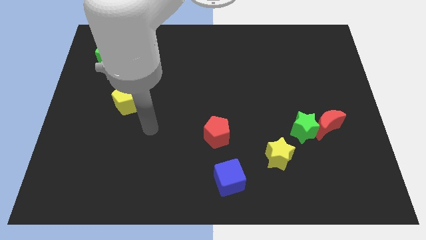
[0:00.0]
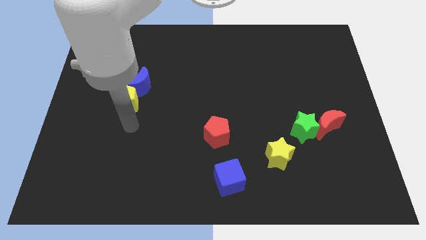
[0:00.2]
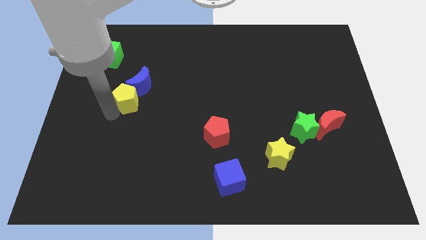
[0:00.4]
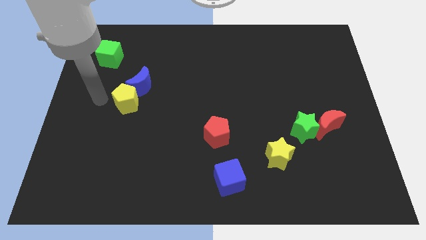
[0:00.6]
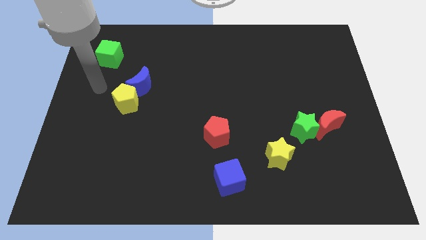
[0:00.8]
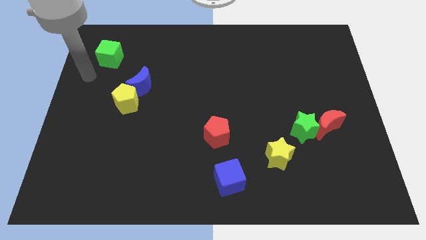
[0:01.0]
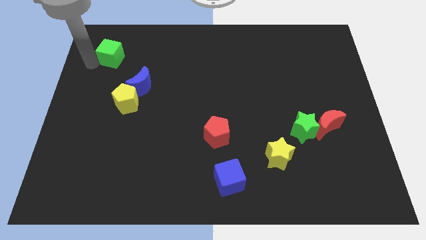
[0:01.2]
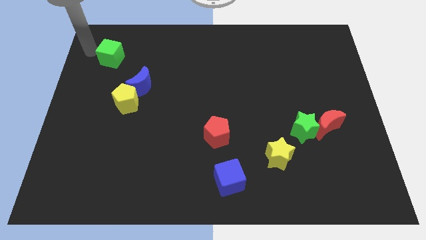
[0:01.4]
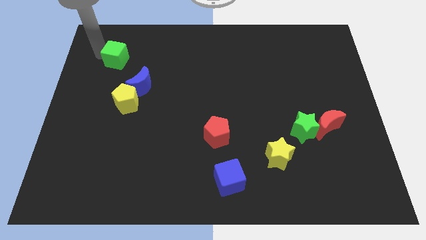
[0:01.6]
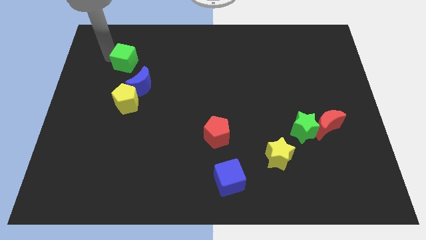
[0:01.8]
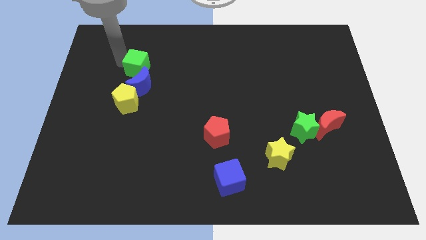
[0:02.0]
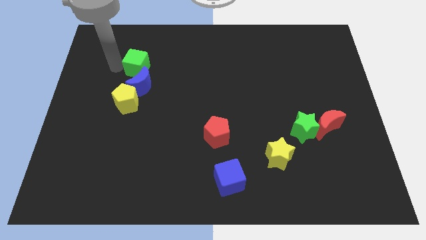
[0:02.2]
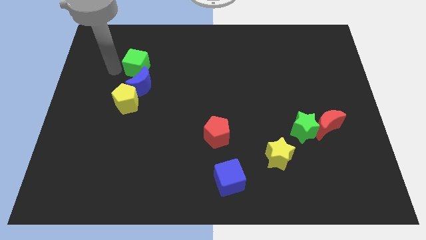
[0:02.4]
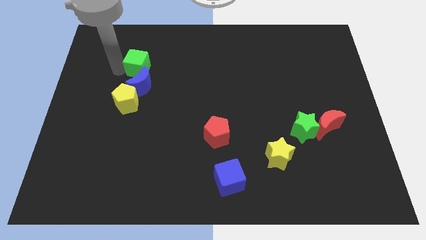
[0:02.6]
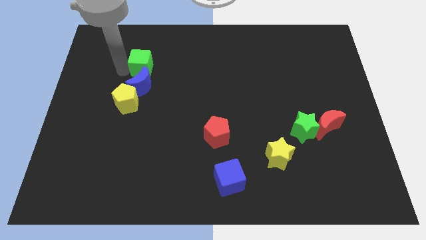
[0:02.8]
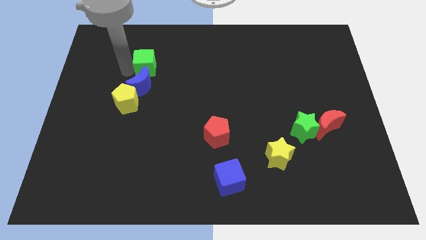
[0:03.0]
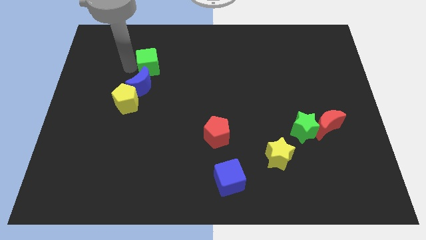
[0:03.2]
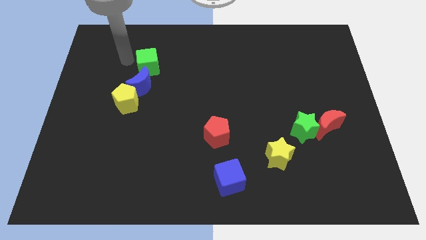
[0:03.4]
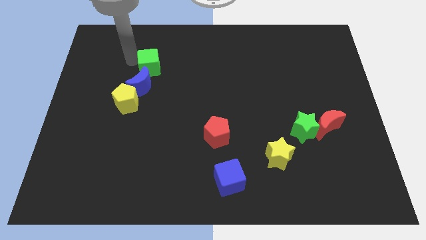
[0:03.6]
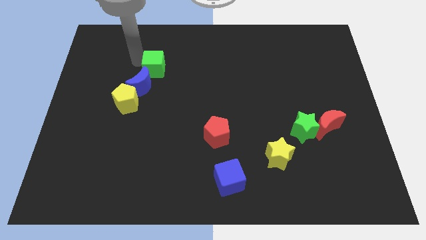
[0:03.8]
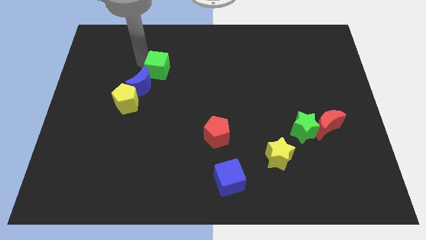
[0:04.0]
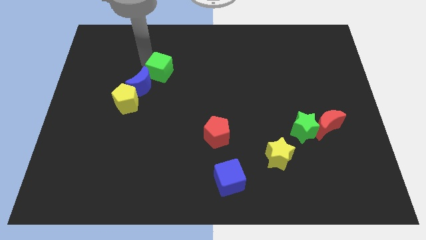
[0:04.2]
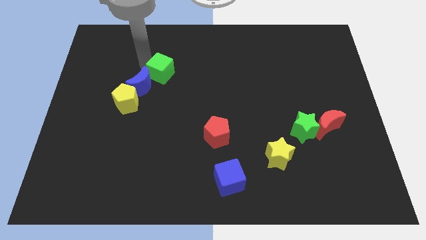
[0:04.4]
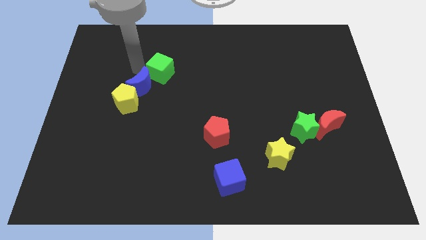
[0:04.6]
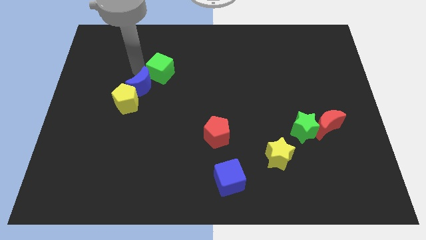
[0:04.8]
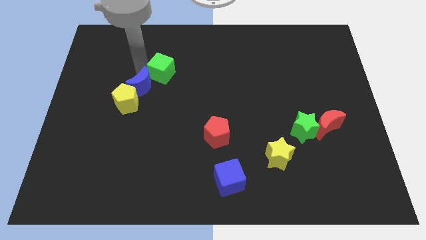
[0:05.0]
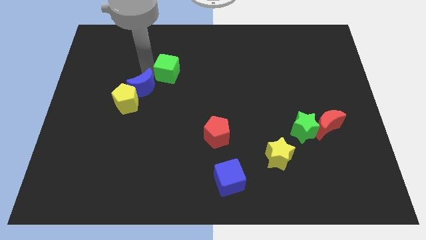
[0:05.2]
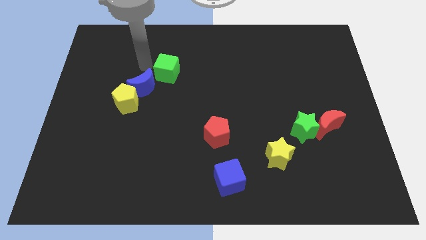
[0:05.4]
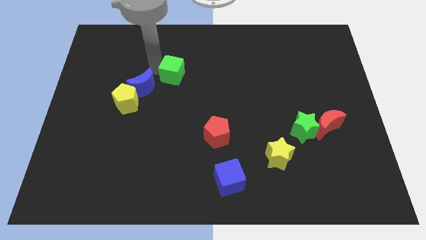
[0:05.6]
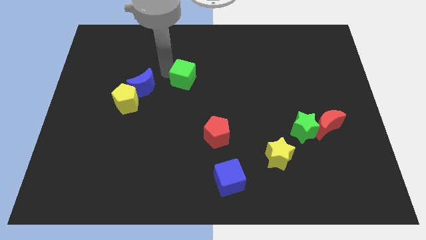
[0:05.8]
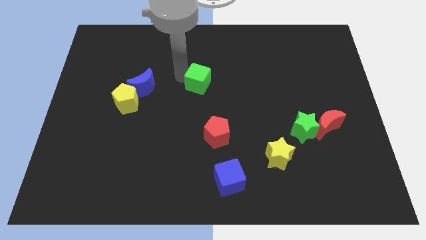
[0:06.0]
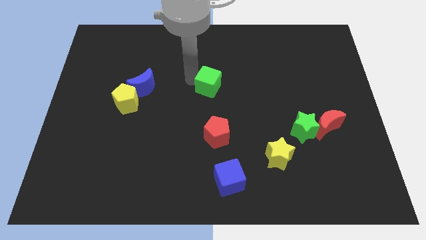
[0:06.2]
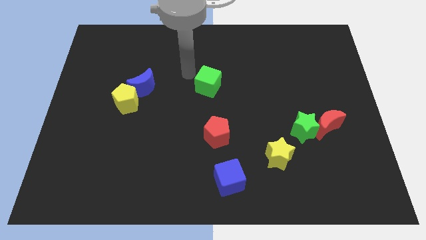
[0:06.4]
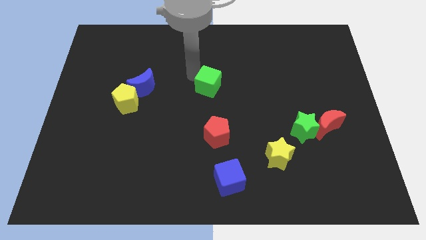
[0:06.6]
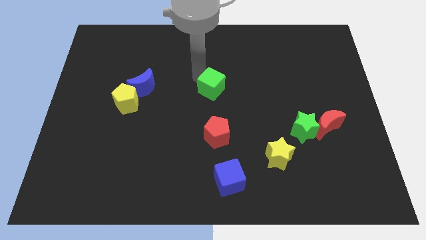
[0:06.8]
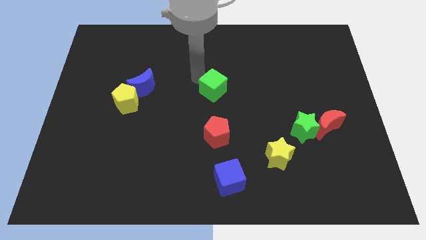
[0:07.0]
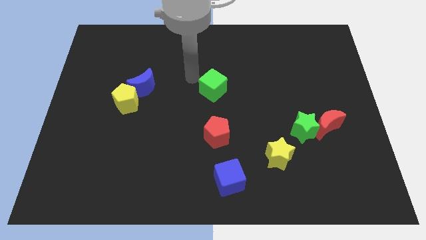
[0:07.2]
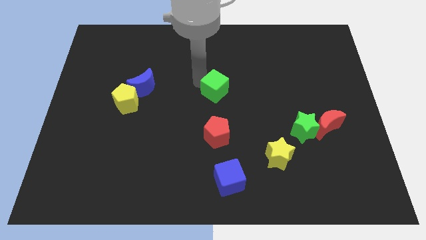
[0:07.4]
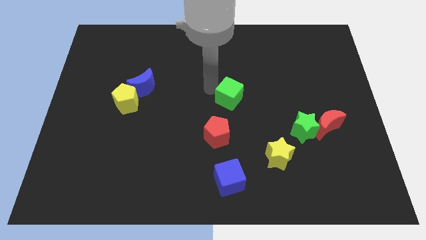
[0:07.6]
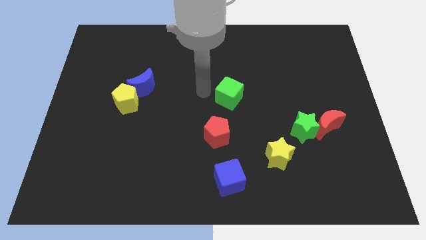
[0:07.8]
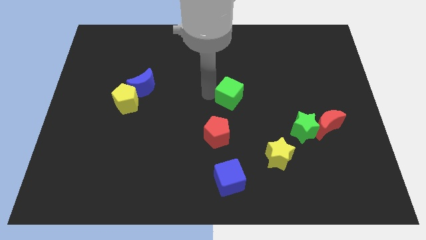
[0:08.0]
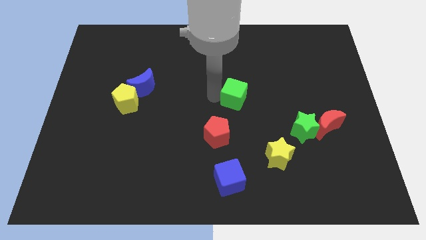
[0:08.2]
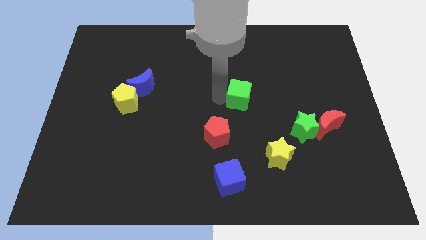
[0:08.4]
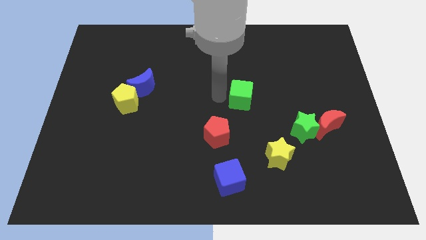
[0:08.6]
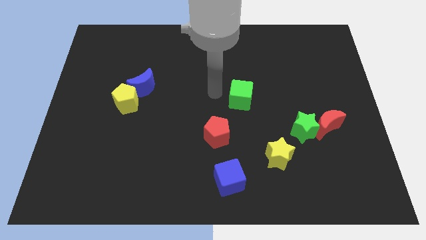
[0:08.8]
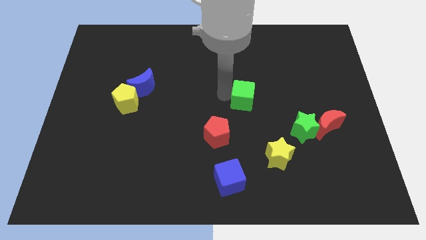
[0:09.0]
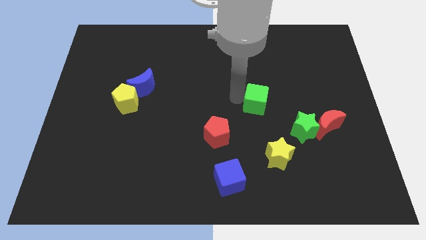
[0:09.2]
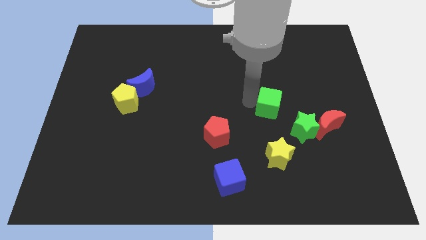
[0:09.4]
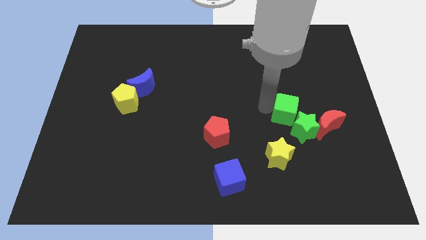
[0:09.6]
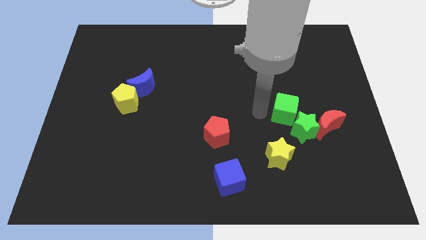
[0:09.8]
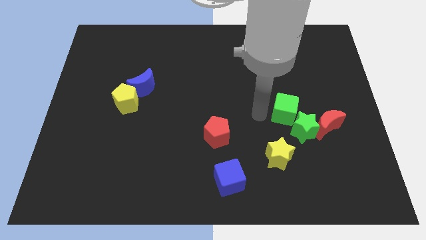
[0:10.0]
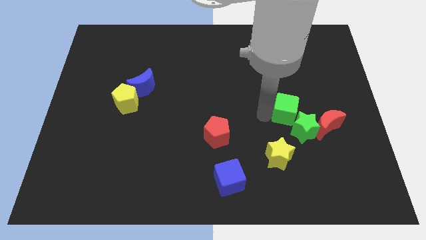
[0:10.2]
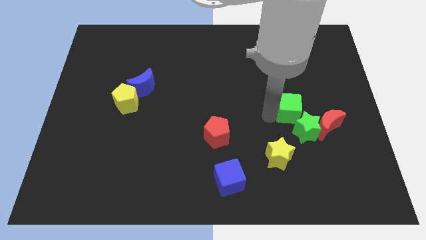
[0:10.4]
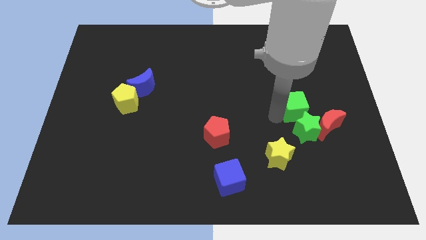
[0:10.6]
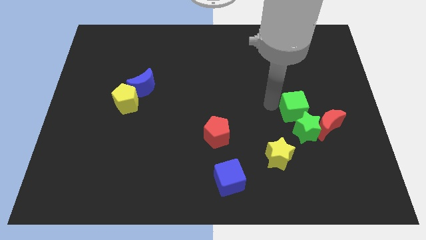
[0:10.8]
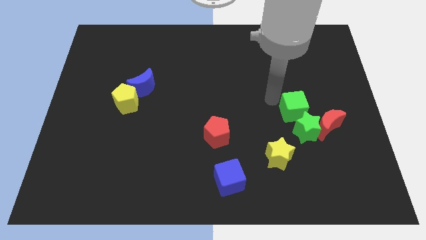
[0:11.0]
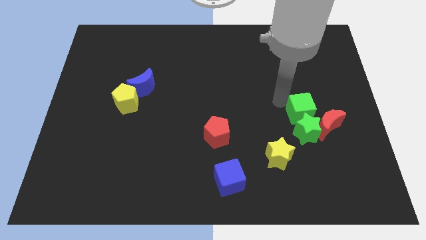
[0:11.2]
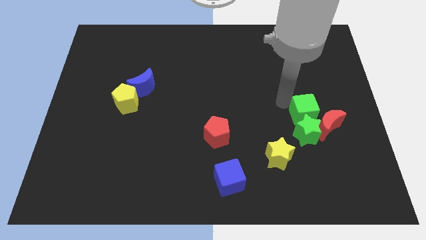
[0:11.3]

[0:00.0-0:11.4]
slide the green cube towards the red moon

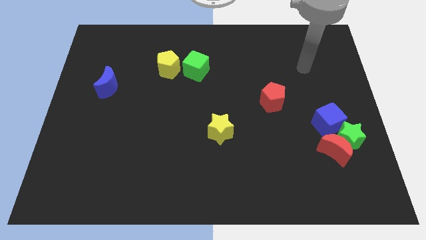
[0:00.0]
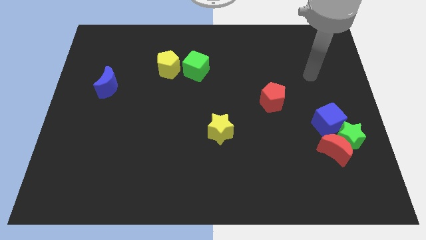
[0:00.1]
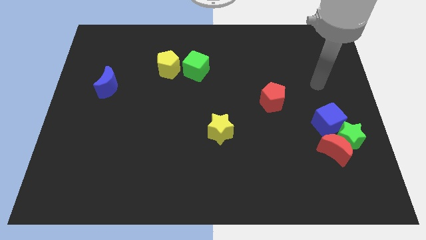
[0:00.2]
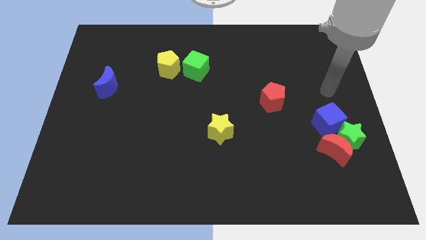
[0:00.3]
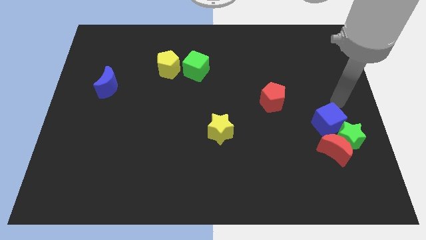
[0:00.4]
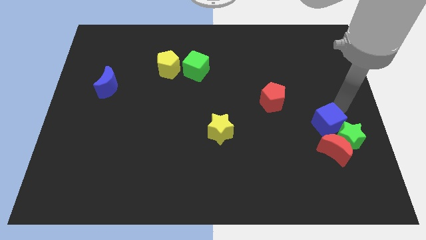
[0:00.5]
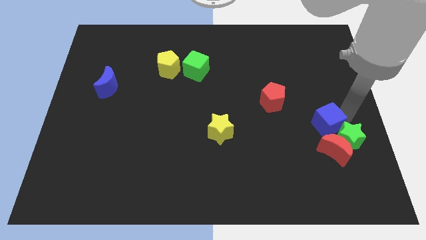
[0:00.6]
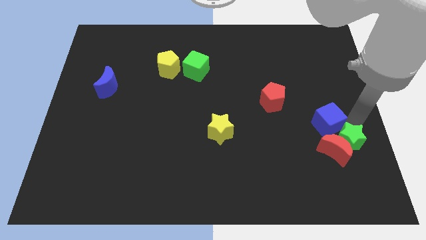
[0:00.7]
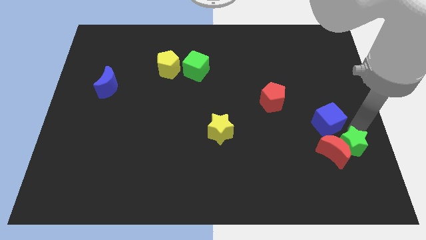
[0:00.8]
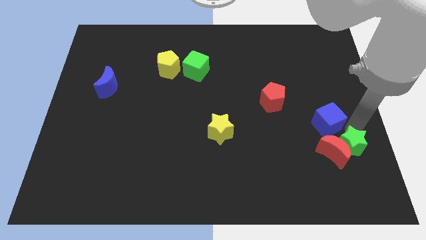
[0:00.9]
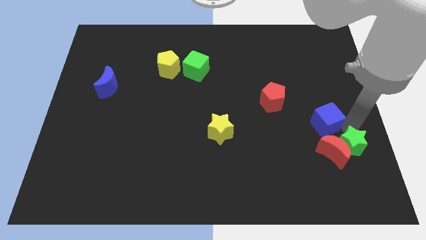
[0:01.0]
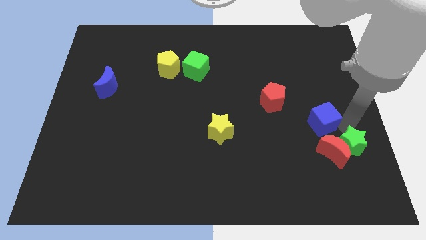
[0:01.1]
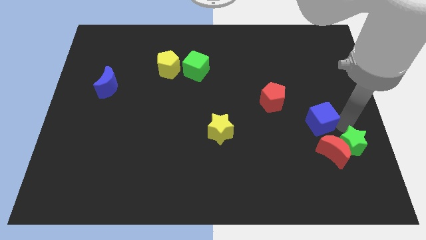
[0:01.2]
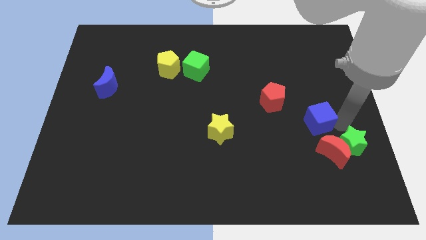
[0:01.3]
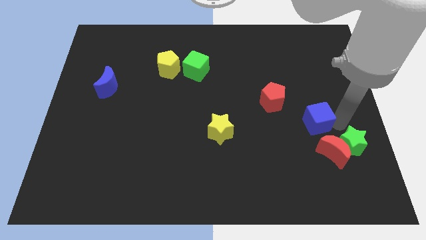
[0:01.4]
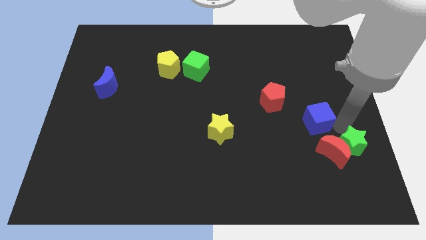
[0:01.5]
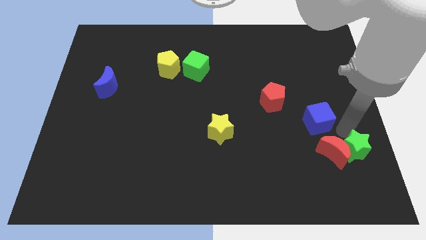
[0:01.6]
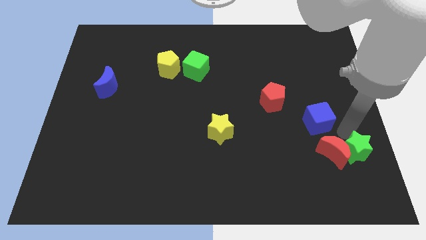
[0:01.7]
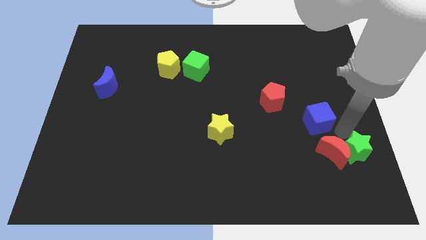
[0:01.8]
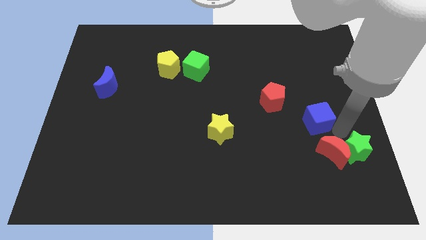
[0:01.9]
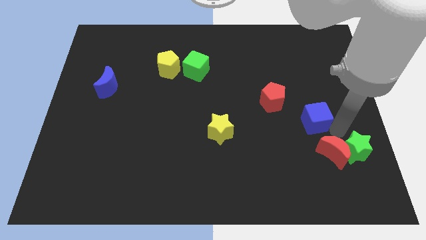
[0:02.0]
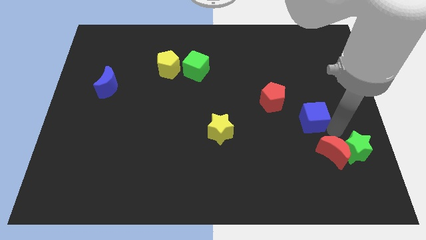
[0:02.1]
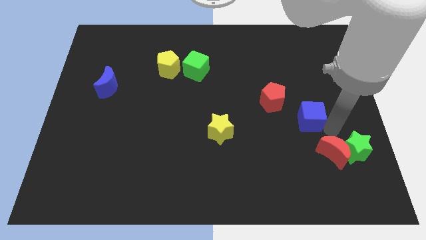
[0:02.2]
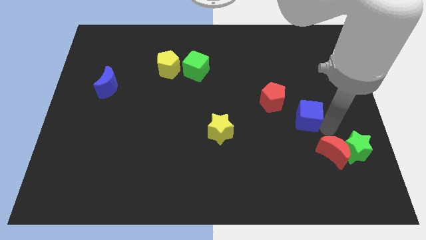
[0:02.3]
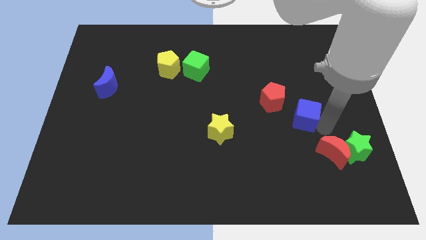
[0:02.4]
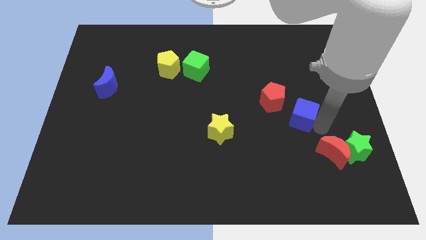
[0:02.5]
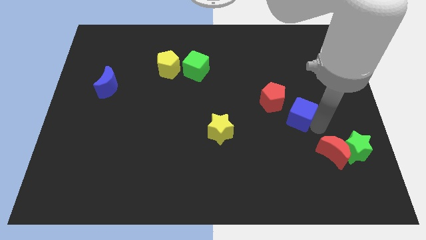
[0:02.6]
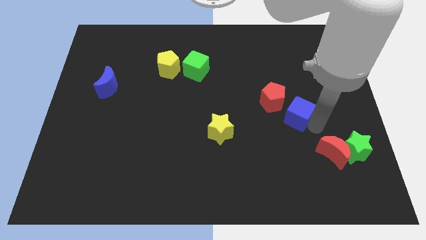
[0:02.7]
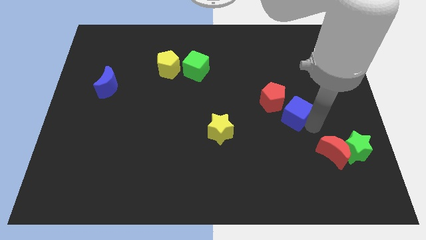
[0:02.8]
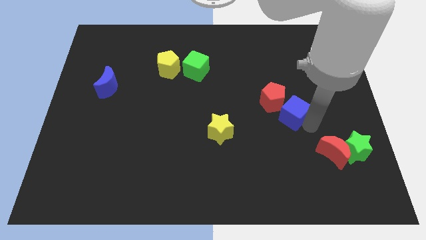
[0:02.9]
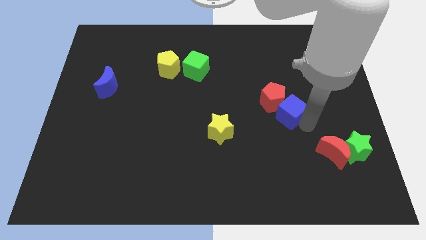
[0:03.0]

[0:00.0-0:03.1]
push the blue cube close to the red pentagon
